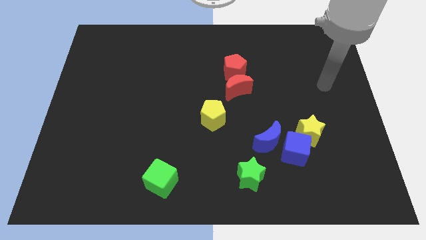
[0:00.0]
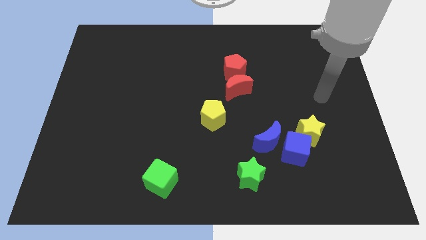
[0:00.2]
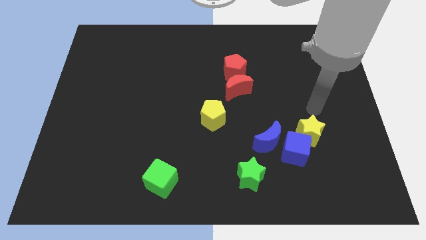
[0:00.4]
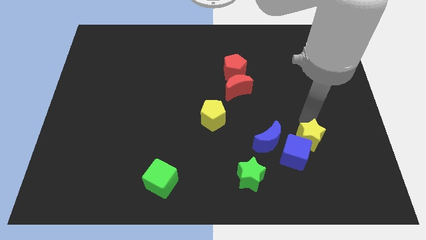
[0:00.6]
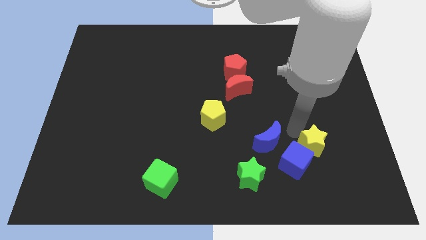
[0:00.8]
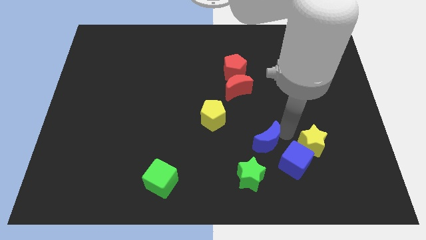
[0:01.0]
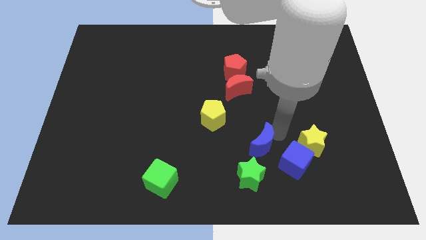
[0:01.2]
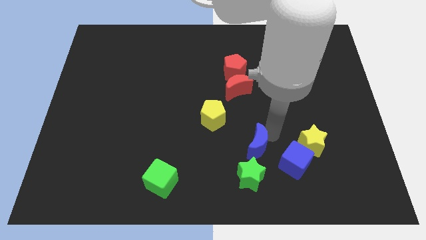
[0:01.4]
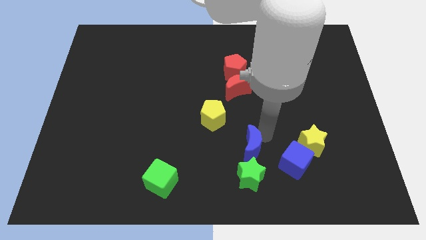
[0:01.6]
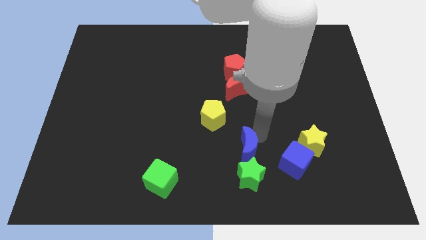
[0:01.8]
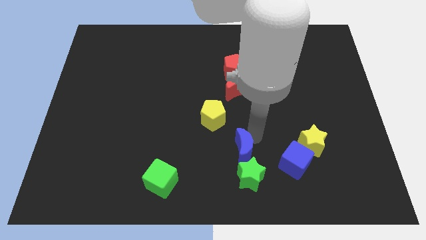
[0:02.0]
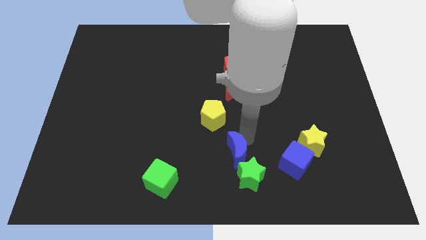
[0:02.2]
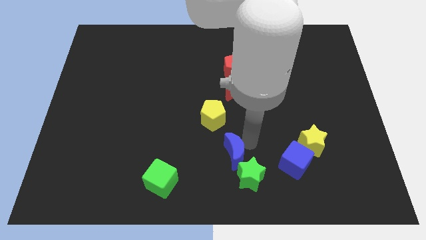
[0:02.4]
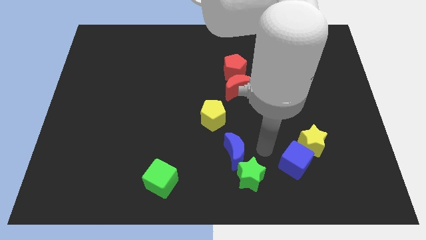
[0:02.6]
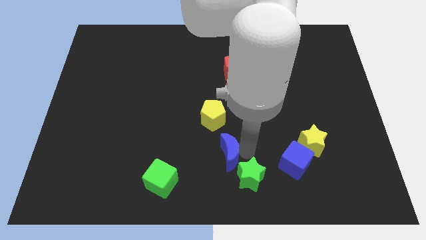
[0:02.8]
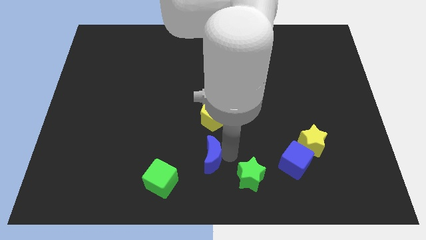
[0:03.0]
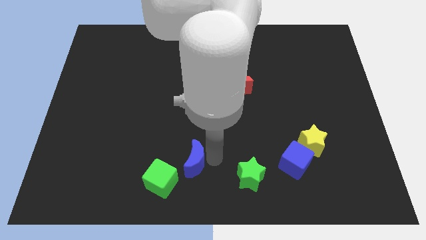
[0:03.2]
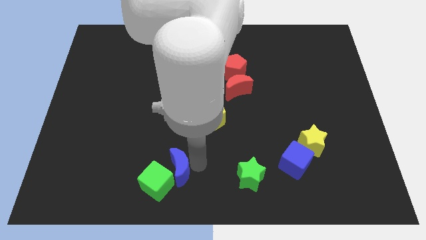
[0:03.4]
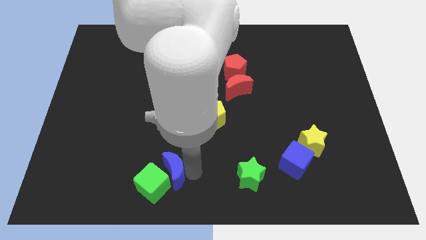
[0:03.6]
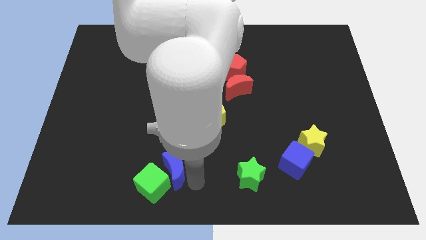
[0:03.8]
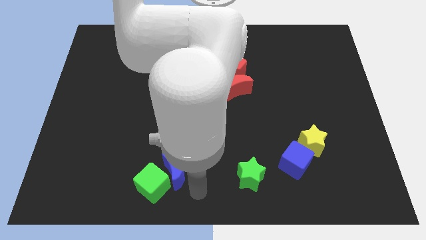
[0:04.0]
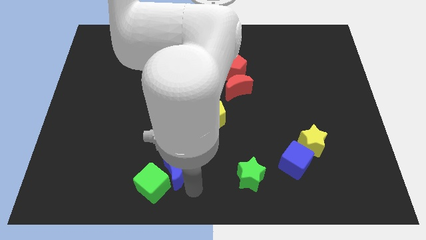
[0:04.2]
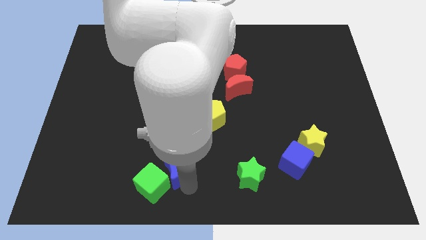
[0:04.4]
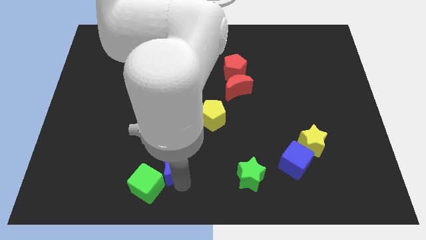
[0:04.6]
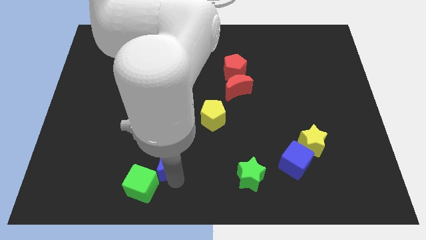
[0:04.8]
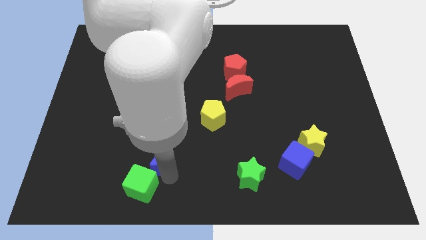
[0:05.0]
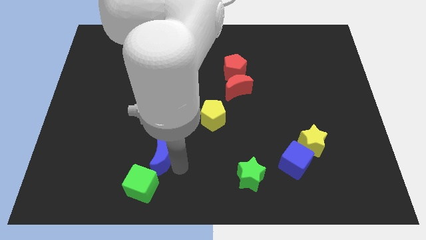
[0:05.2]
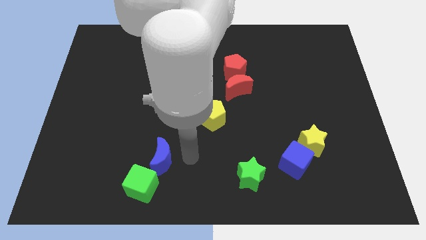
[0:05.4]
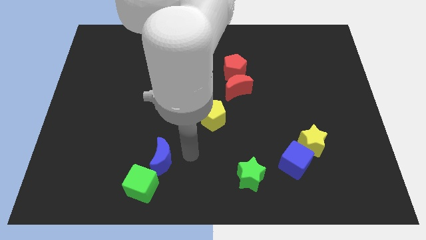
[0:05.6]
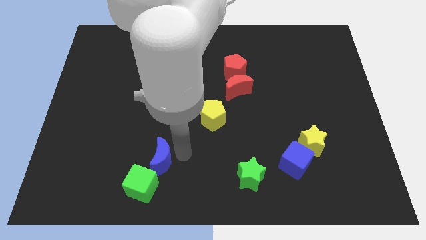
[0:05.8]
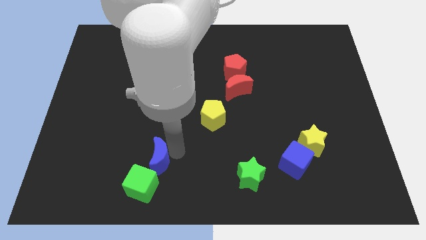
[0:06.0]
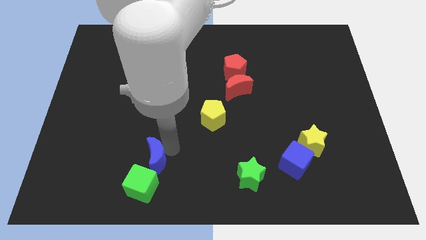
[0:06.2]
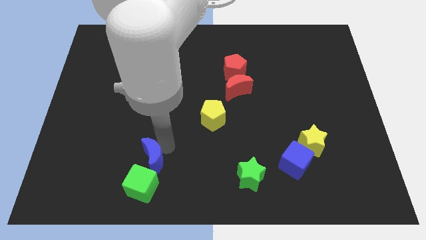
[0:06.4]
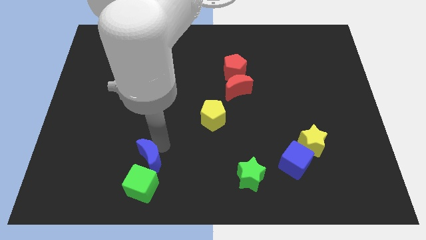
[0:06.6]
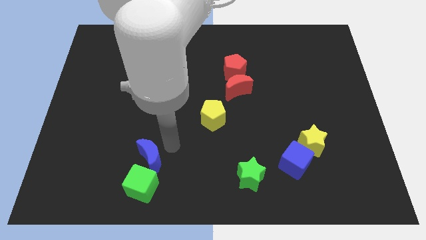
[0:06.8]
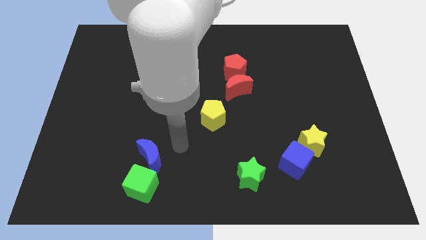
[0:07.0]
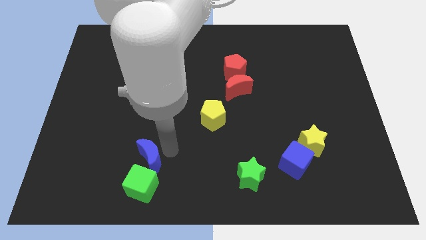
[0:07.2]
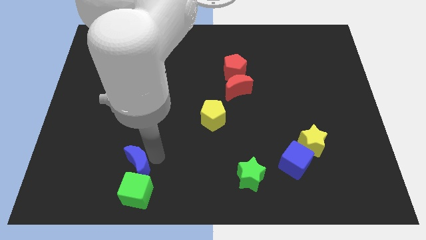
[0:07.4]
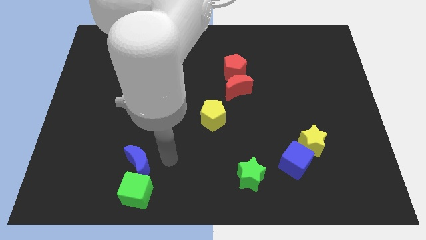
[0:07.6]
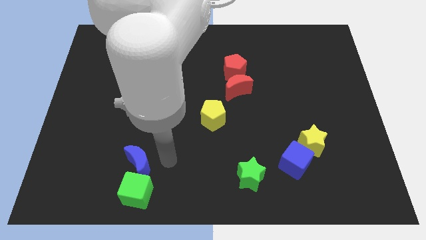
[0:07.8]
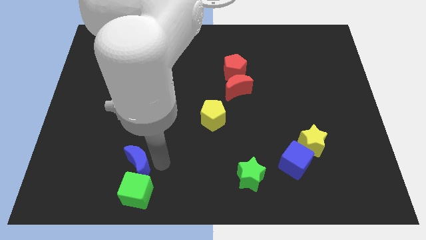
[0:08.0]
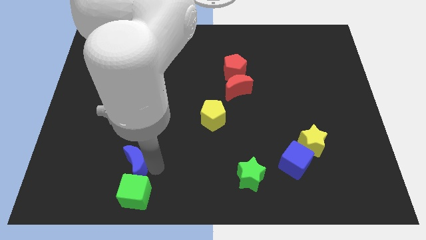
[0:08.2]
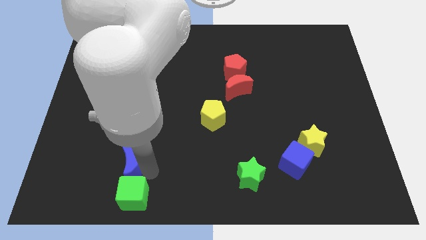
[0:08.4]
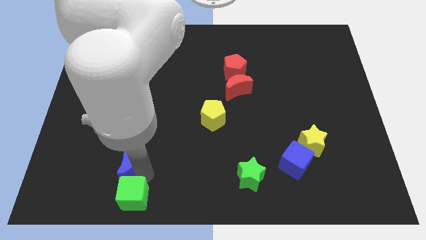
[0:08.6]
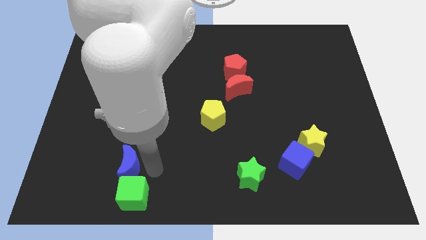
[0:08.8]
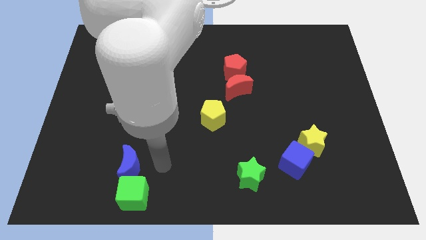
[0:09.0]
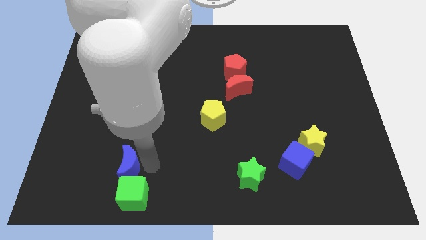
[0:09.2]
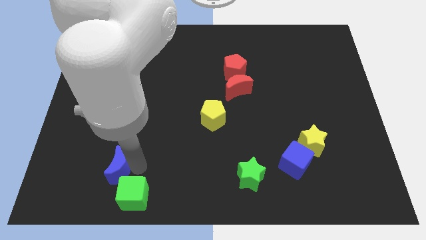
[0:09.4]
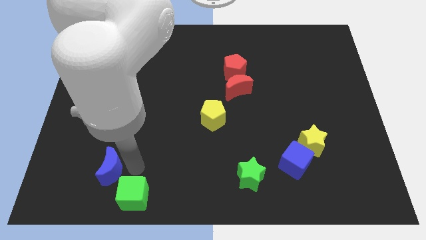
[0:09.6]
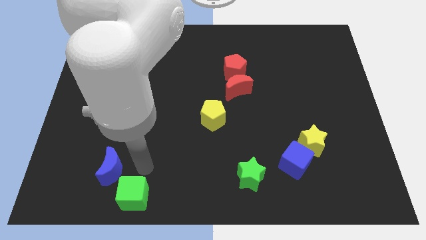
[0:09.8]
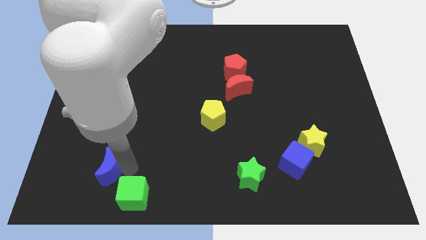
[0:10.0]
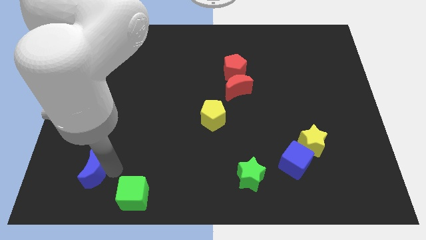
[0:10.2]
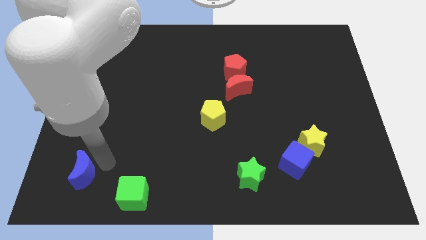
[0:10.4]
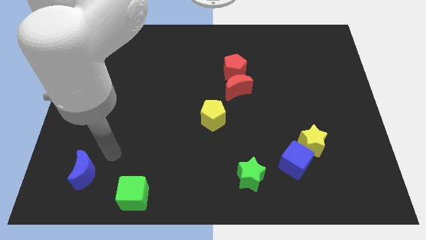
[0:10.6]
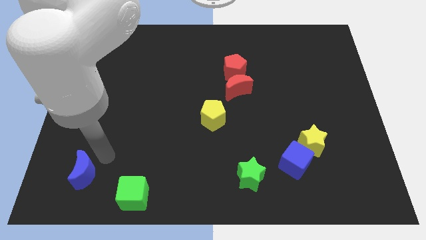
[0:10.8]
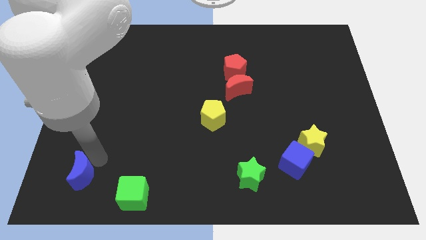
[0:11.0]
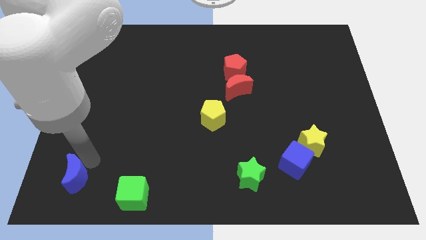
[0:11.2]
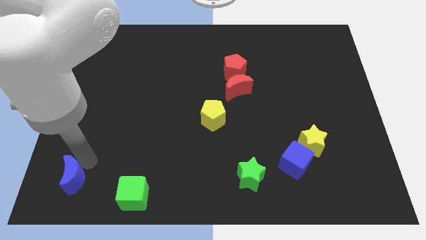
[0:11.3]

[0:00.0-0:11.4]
push the blue moon to the bottom left

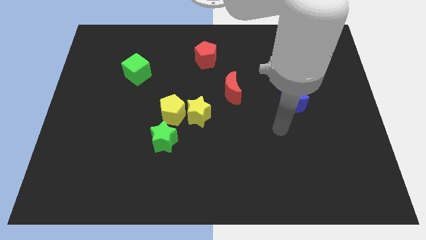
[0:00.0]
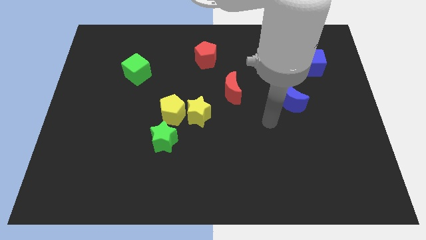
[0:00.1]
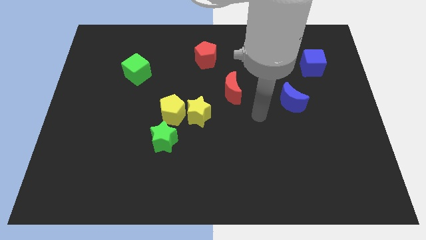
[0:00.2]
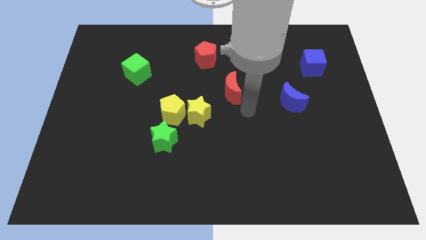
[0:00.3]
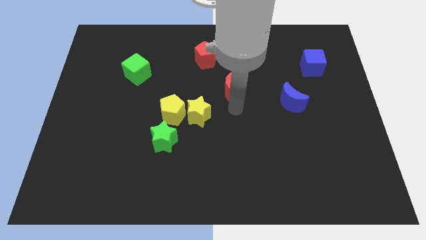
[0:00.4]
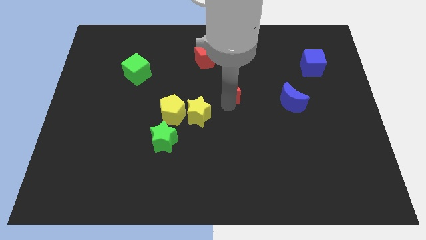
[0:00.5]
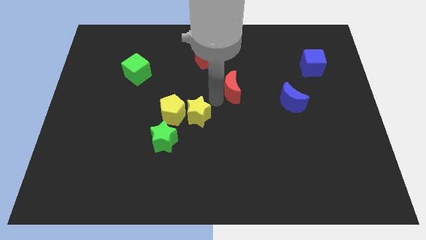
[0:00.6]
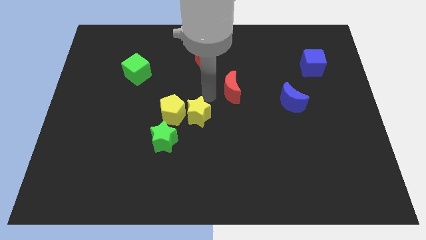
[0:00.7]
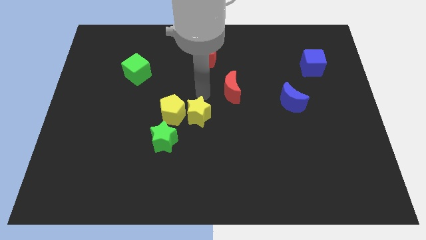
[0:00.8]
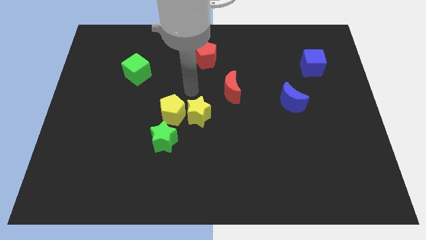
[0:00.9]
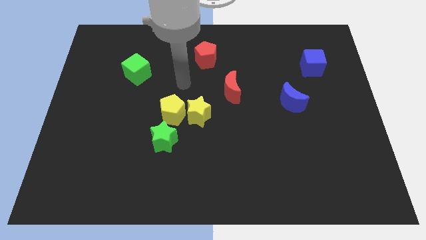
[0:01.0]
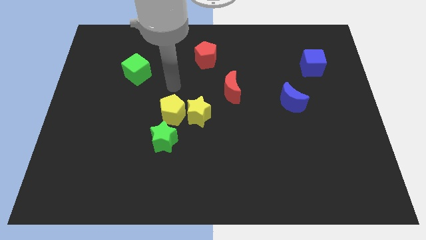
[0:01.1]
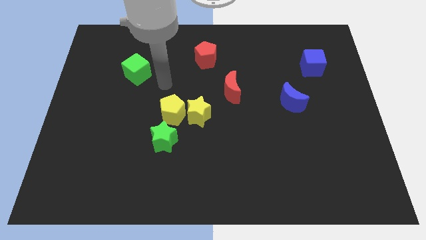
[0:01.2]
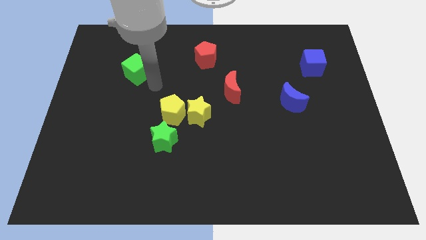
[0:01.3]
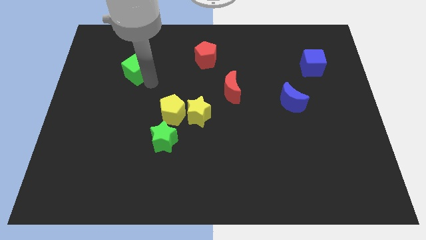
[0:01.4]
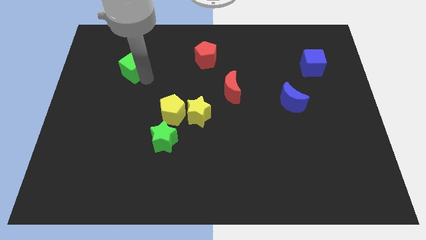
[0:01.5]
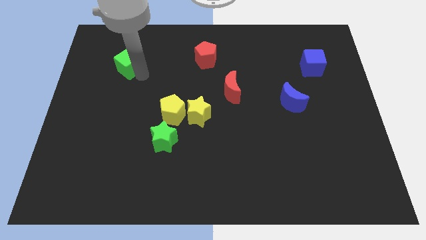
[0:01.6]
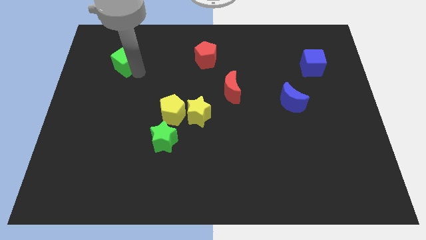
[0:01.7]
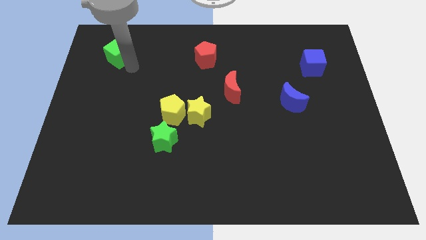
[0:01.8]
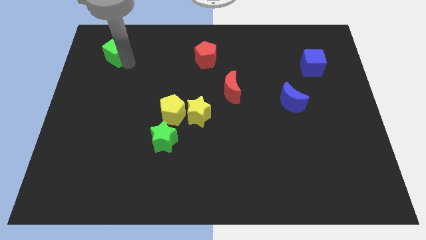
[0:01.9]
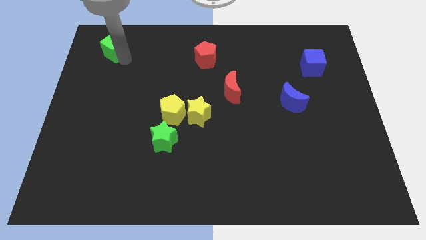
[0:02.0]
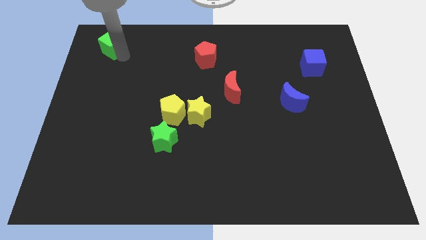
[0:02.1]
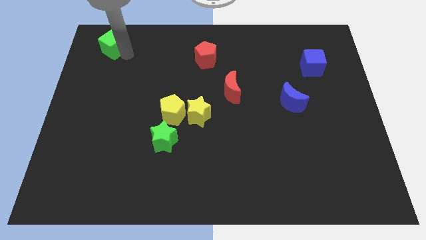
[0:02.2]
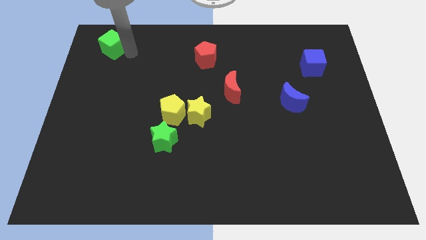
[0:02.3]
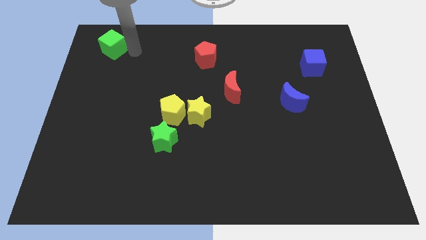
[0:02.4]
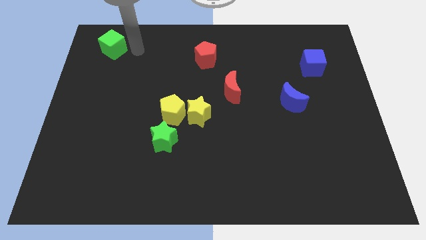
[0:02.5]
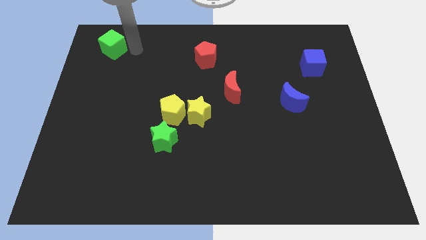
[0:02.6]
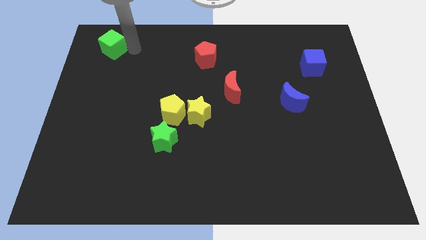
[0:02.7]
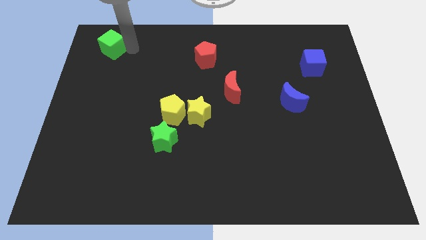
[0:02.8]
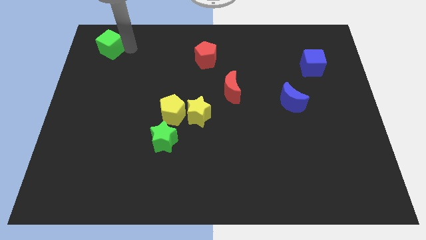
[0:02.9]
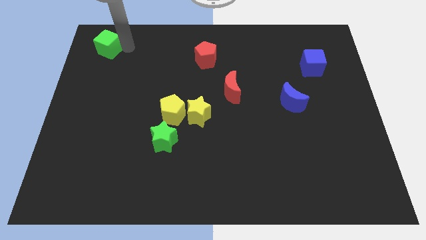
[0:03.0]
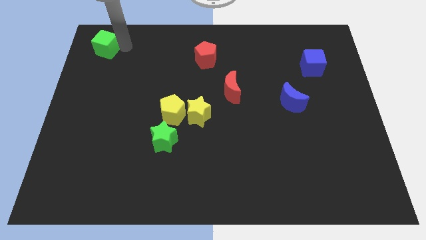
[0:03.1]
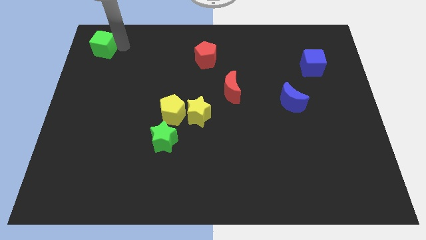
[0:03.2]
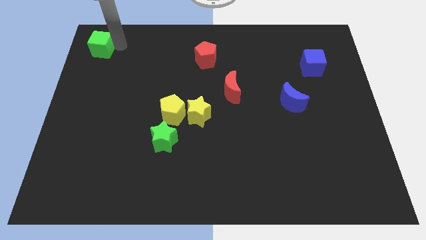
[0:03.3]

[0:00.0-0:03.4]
move the green cube to the upper left corner
